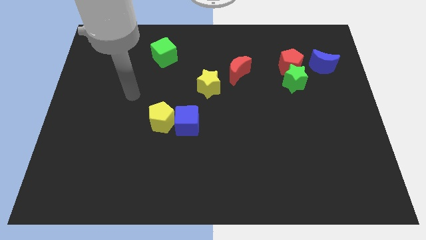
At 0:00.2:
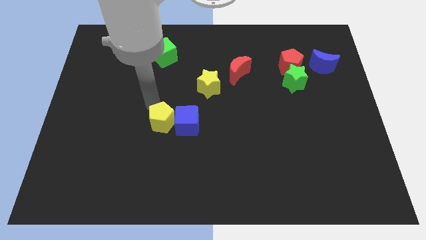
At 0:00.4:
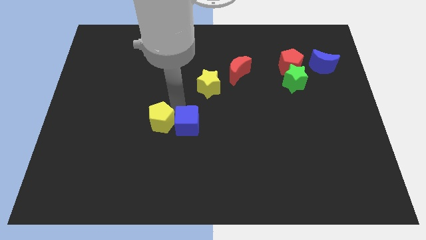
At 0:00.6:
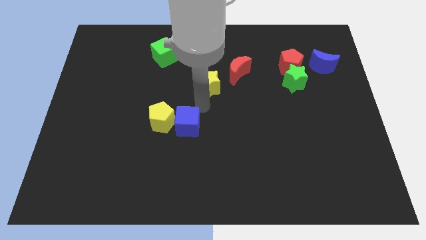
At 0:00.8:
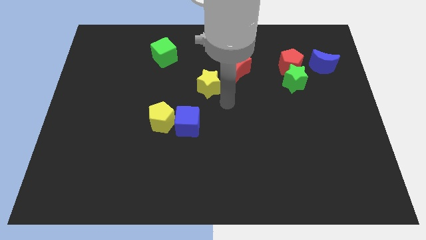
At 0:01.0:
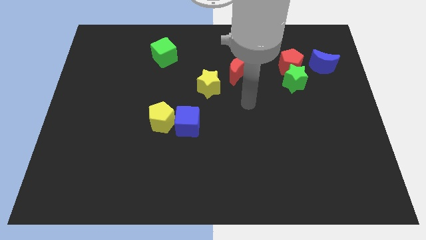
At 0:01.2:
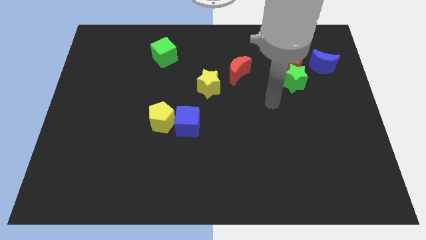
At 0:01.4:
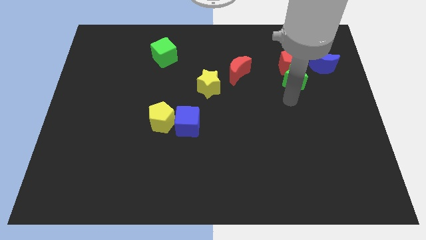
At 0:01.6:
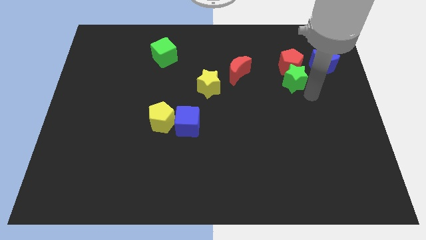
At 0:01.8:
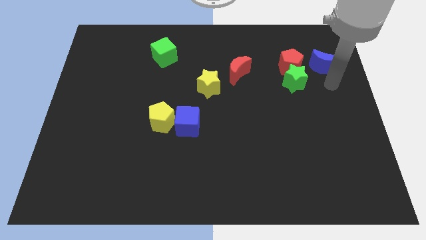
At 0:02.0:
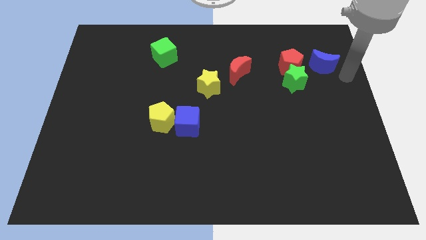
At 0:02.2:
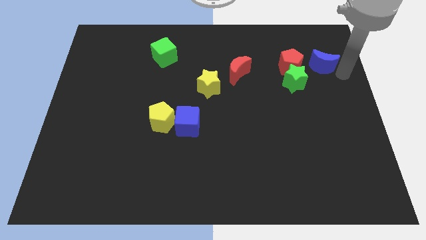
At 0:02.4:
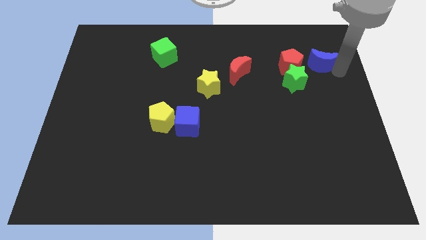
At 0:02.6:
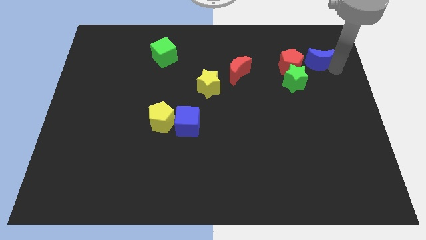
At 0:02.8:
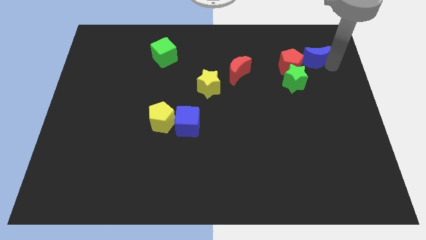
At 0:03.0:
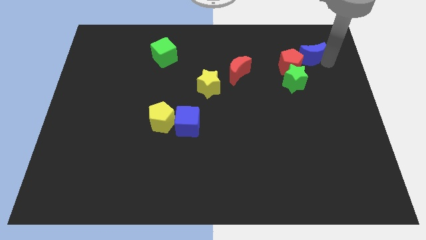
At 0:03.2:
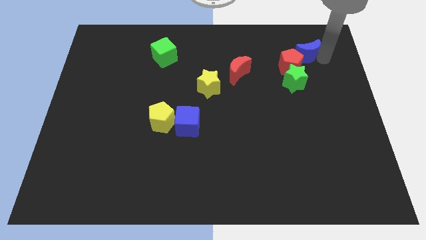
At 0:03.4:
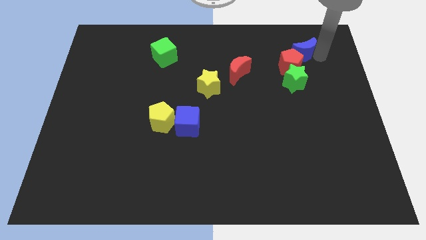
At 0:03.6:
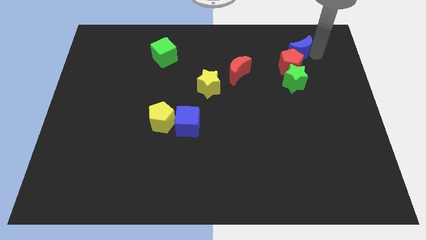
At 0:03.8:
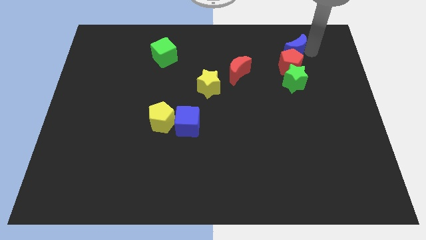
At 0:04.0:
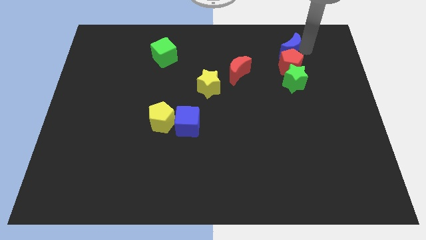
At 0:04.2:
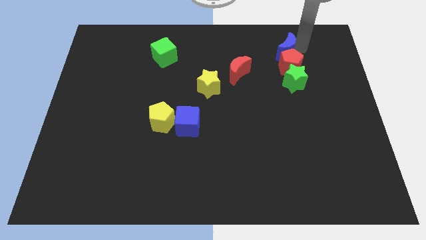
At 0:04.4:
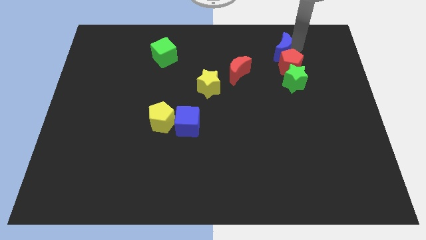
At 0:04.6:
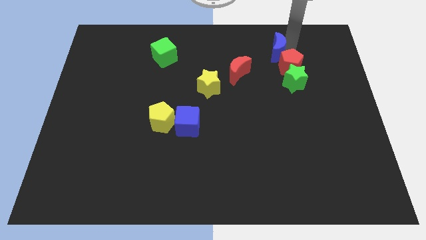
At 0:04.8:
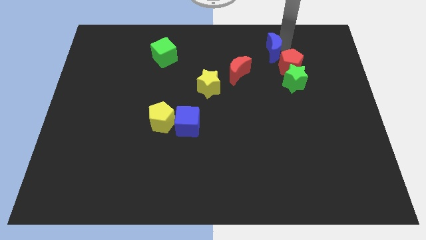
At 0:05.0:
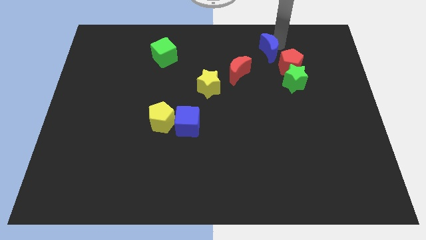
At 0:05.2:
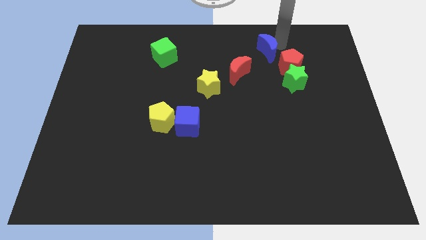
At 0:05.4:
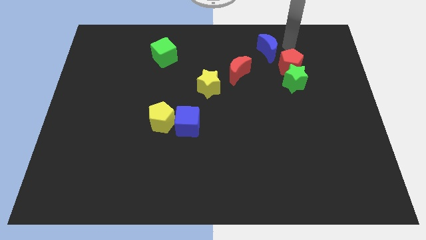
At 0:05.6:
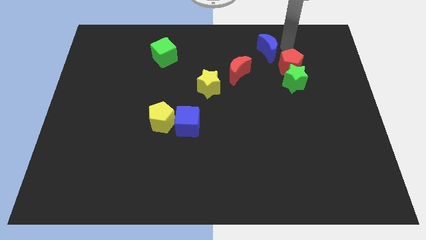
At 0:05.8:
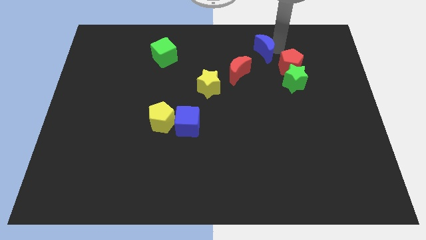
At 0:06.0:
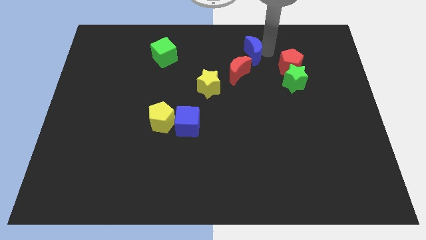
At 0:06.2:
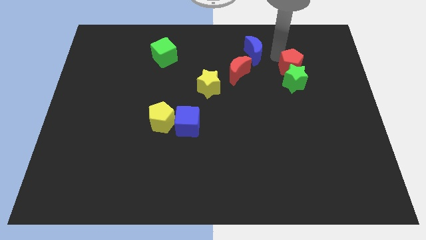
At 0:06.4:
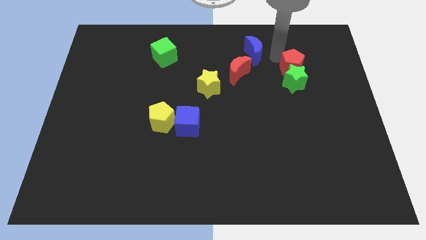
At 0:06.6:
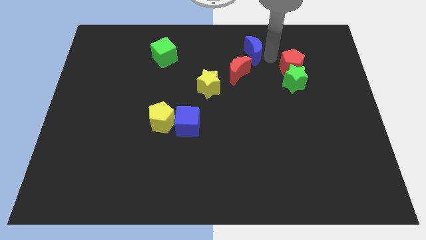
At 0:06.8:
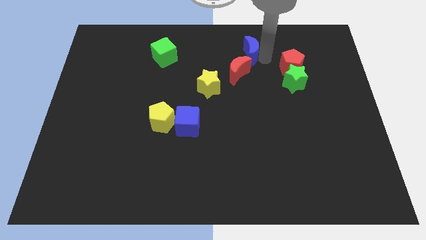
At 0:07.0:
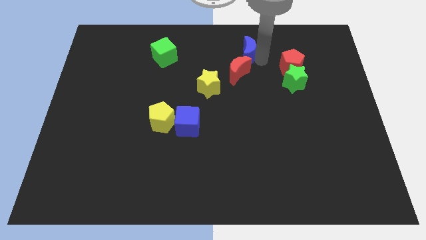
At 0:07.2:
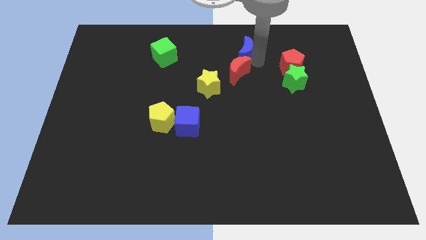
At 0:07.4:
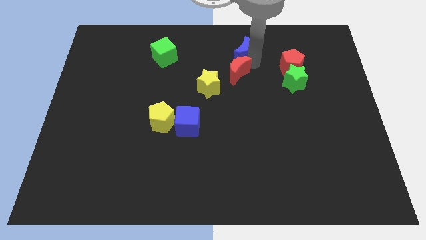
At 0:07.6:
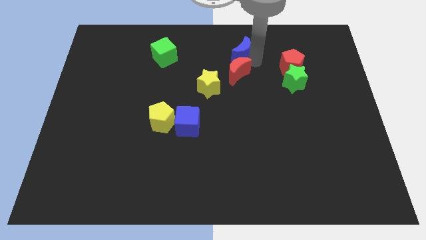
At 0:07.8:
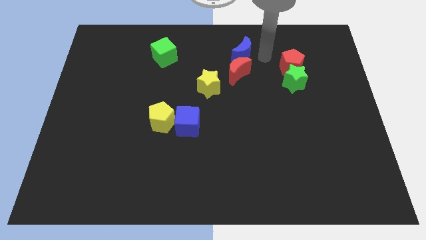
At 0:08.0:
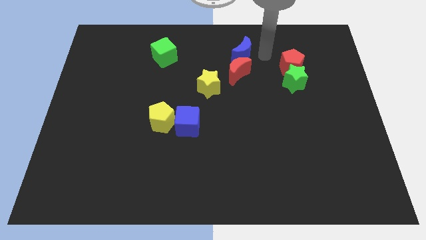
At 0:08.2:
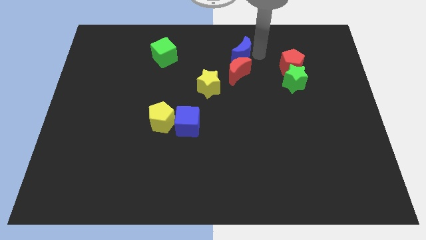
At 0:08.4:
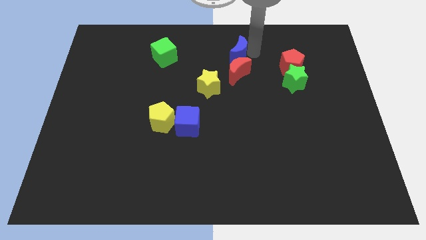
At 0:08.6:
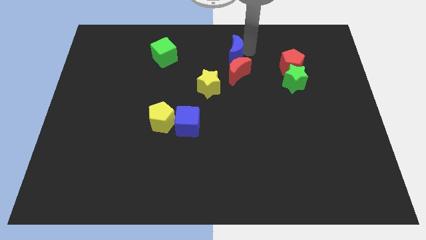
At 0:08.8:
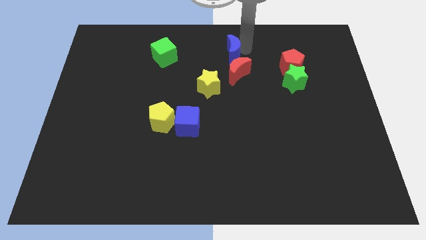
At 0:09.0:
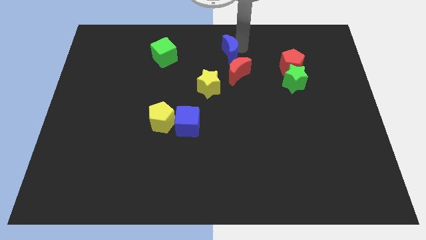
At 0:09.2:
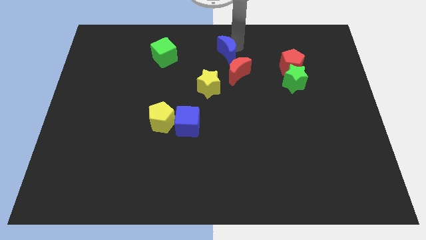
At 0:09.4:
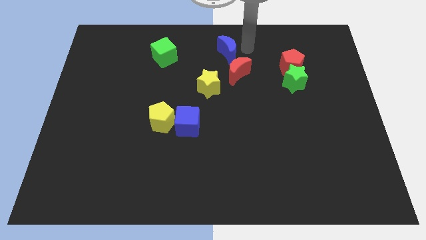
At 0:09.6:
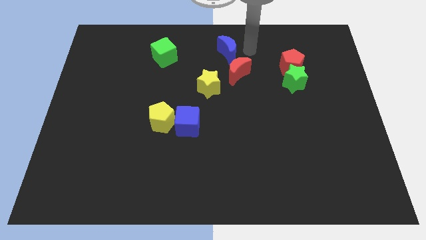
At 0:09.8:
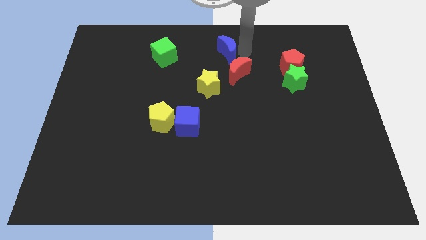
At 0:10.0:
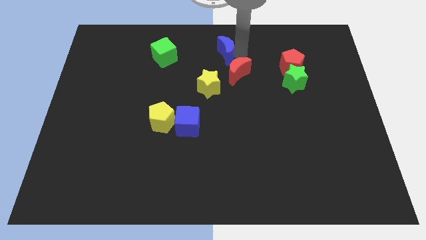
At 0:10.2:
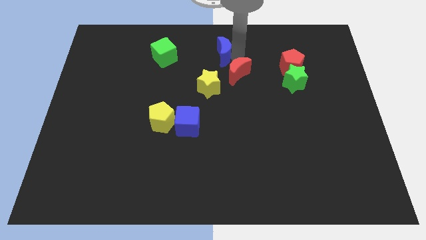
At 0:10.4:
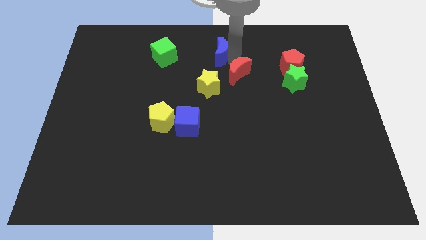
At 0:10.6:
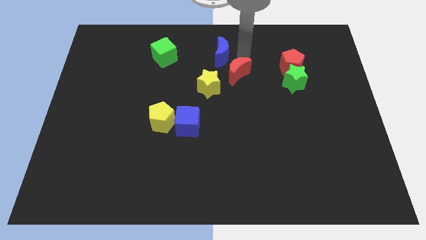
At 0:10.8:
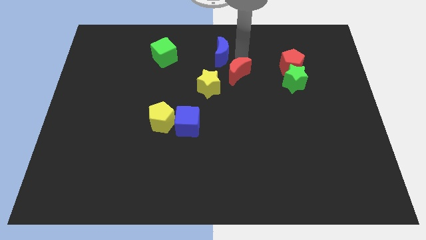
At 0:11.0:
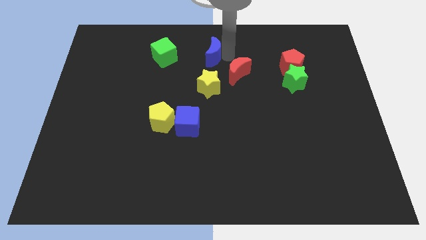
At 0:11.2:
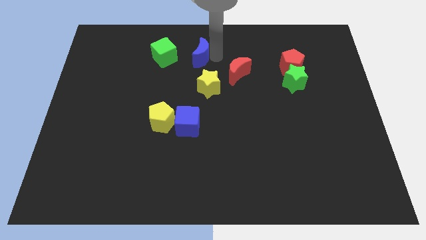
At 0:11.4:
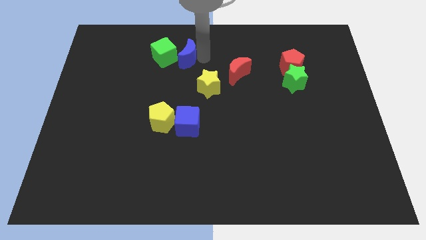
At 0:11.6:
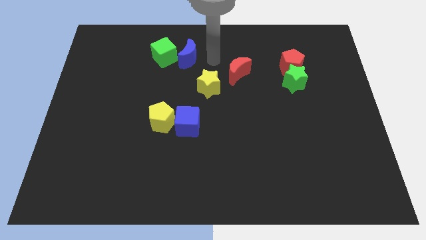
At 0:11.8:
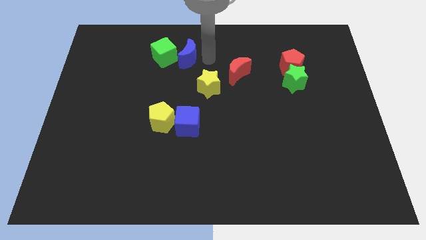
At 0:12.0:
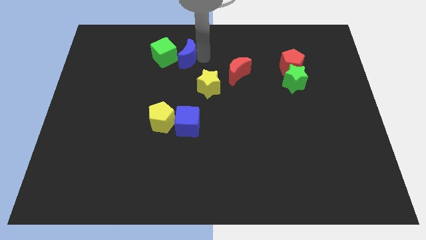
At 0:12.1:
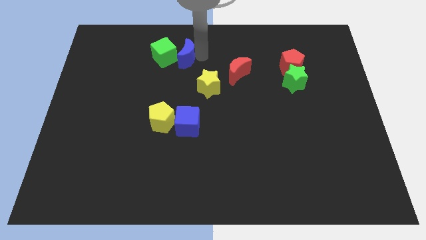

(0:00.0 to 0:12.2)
put the blue moon close to the green cube

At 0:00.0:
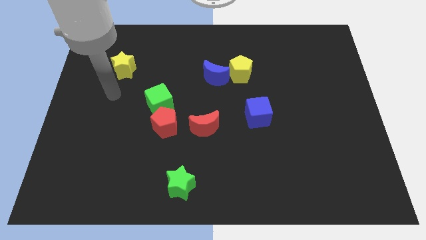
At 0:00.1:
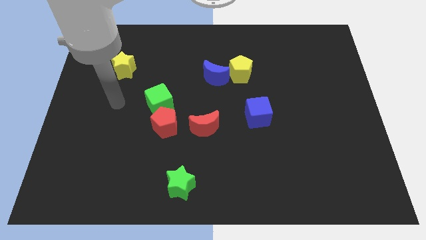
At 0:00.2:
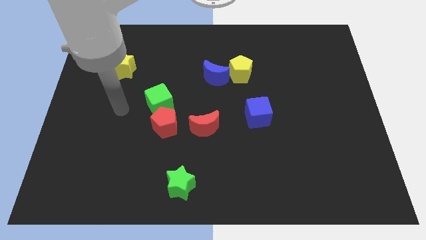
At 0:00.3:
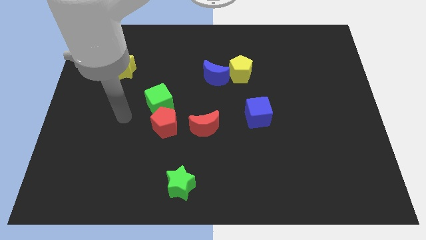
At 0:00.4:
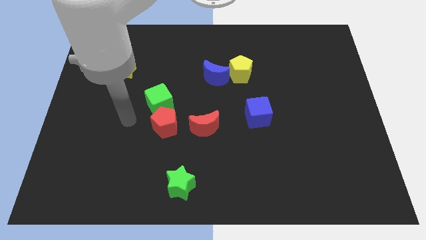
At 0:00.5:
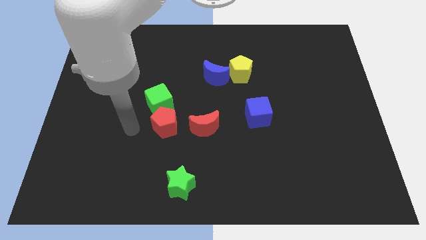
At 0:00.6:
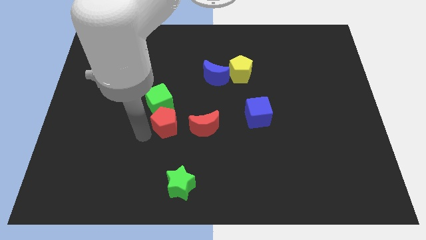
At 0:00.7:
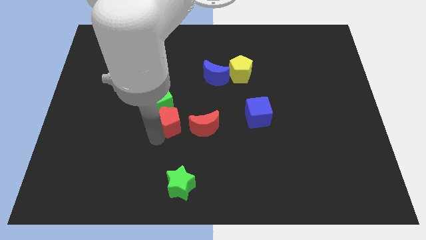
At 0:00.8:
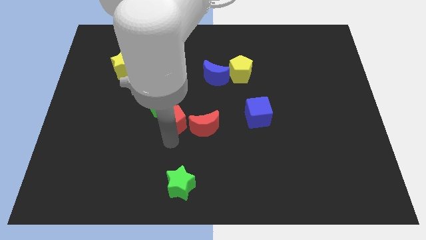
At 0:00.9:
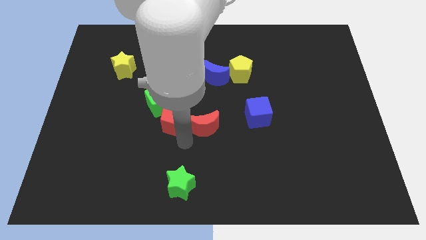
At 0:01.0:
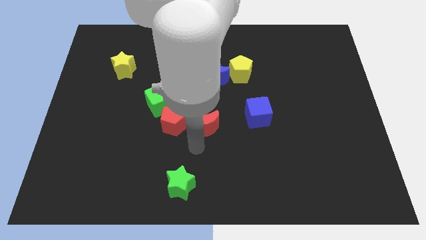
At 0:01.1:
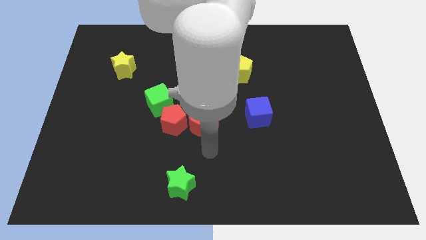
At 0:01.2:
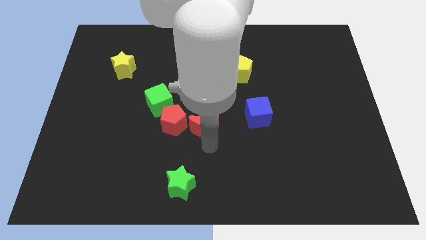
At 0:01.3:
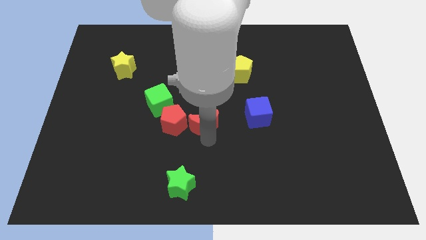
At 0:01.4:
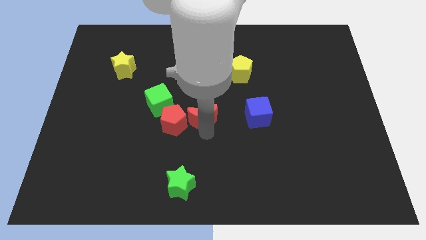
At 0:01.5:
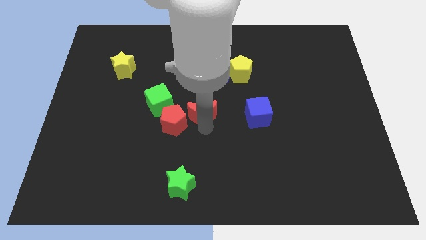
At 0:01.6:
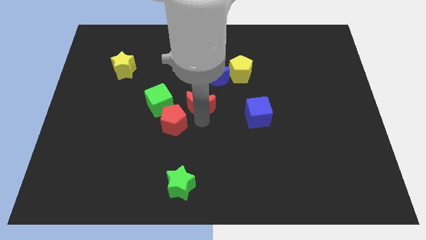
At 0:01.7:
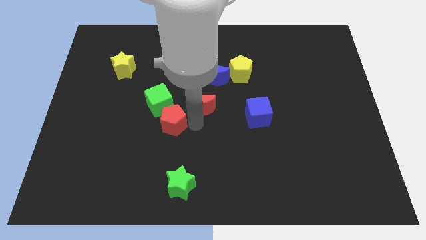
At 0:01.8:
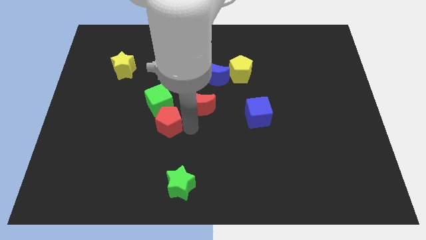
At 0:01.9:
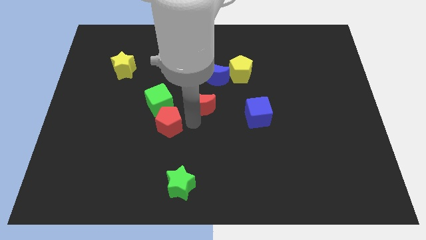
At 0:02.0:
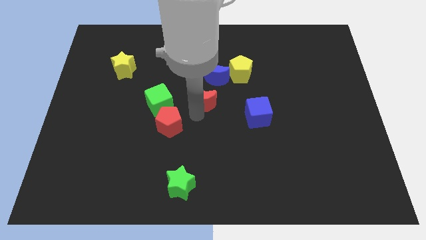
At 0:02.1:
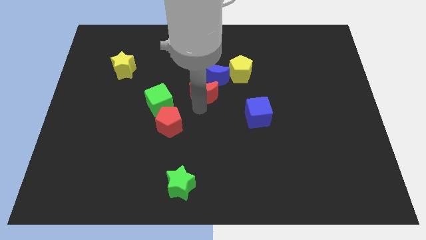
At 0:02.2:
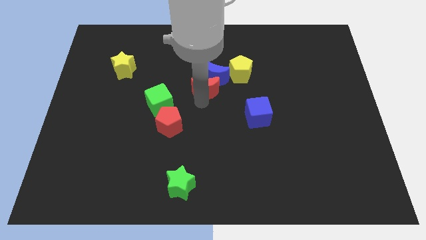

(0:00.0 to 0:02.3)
push the red moon to the blue moon
